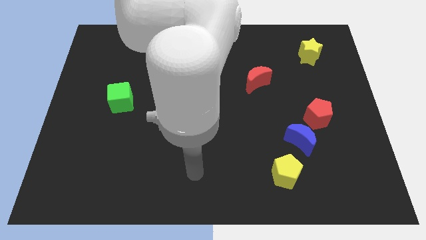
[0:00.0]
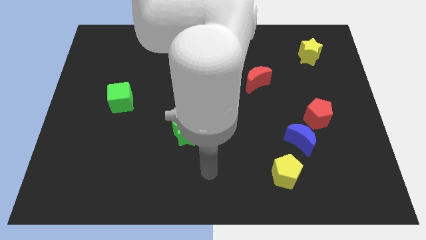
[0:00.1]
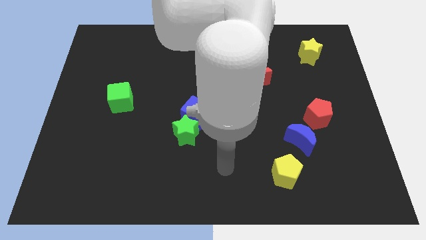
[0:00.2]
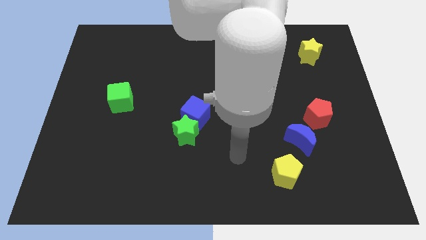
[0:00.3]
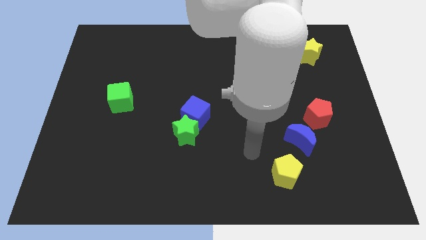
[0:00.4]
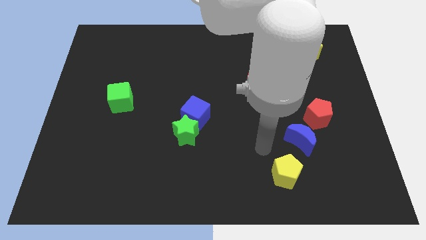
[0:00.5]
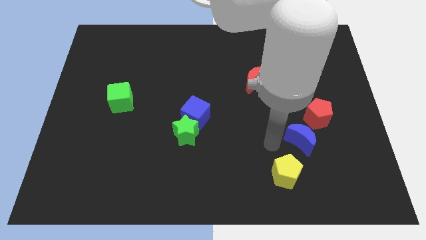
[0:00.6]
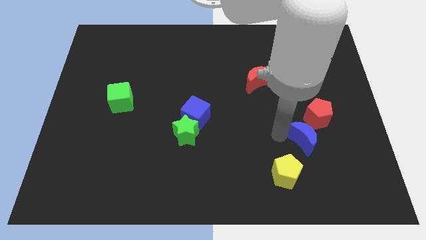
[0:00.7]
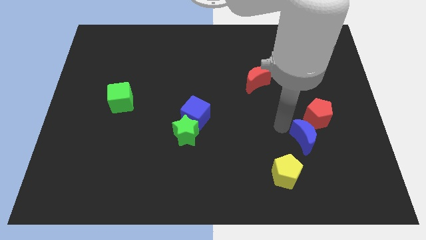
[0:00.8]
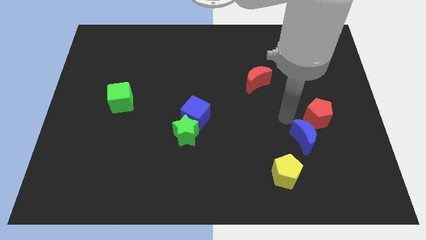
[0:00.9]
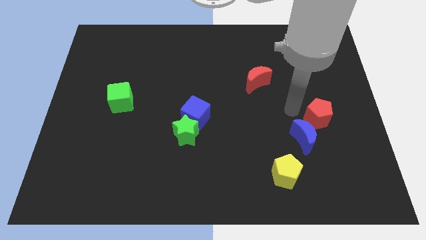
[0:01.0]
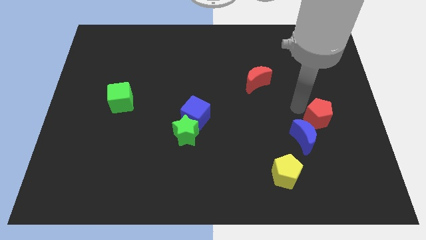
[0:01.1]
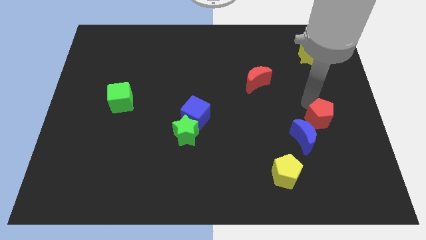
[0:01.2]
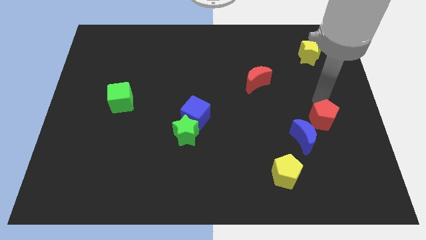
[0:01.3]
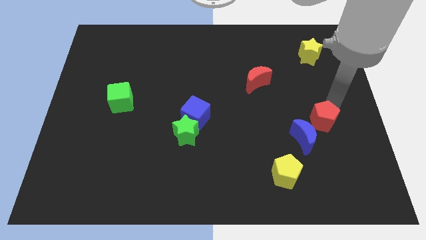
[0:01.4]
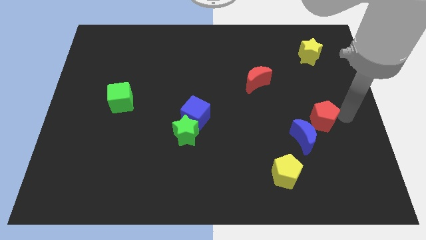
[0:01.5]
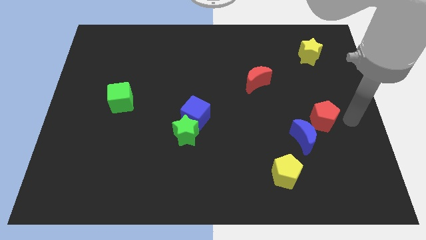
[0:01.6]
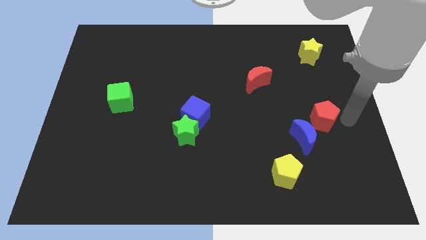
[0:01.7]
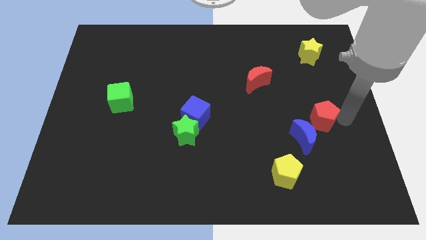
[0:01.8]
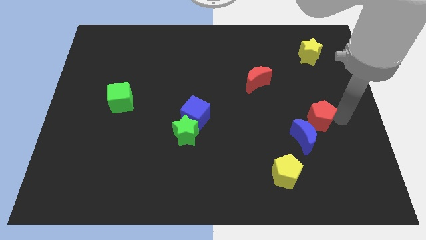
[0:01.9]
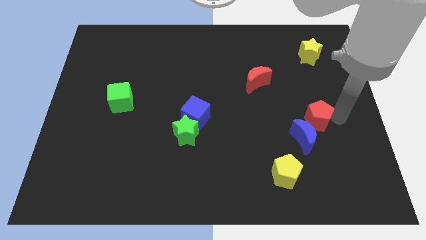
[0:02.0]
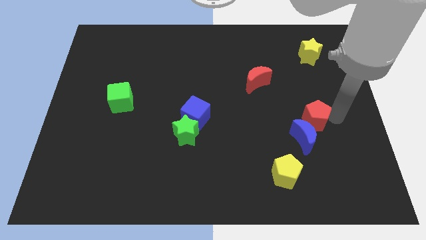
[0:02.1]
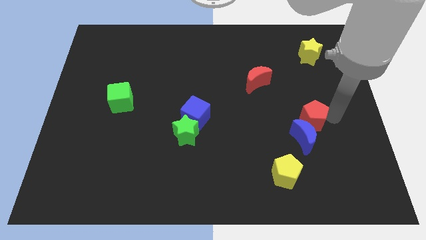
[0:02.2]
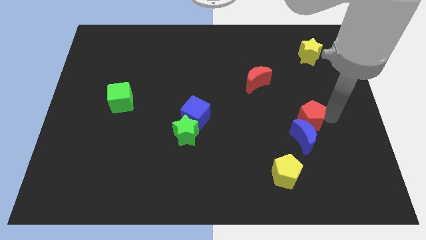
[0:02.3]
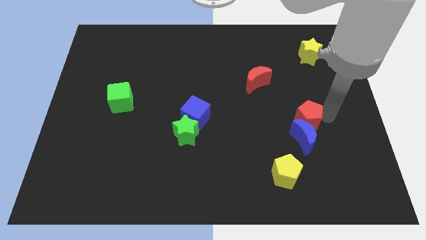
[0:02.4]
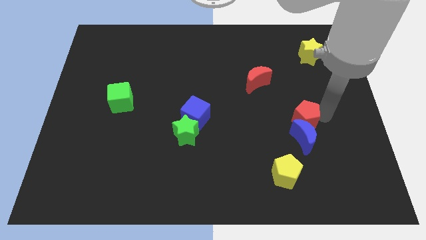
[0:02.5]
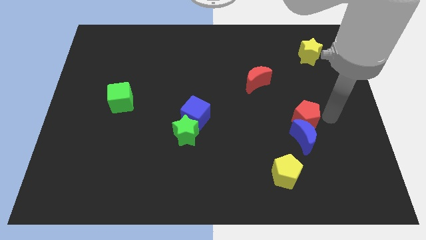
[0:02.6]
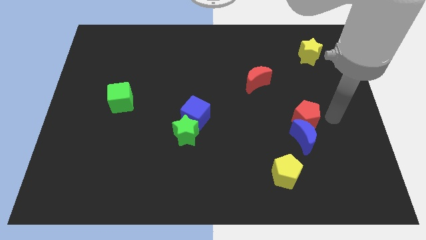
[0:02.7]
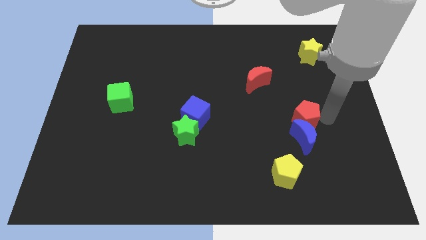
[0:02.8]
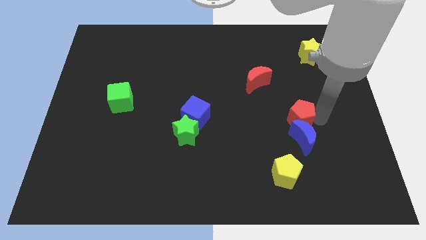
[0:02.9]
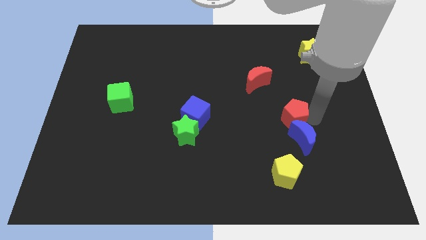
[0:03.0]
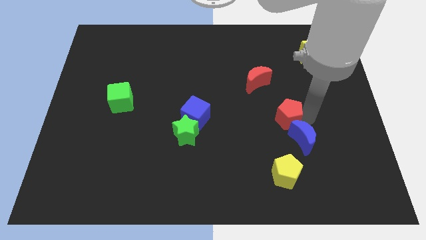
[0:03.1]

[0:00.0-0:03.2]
move the red pentagon slightly to the left

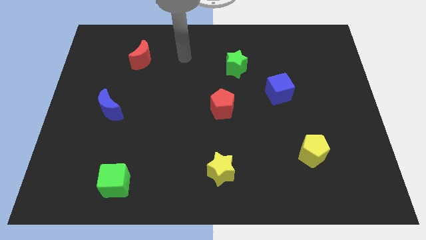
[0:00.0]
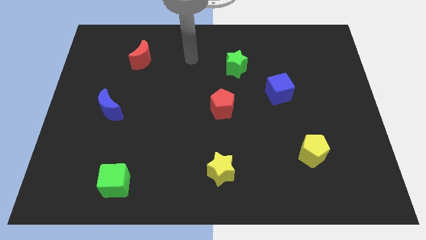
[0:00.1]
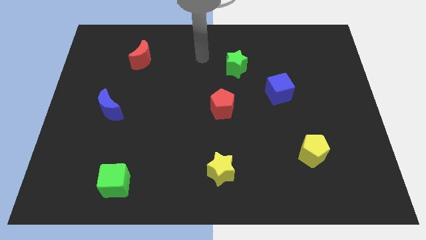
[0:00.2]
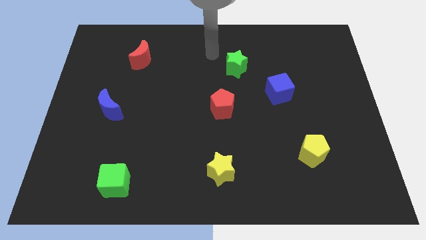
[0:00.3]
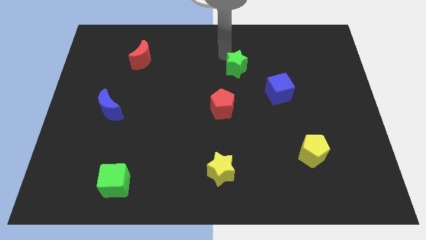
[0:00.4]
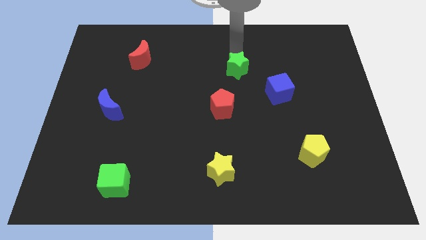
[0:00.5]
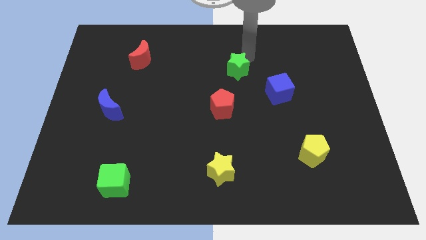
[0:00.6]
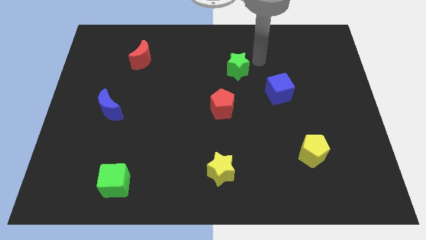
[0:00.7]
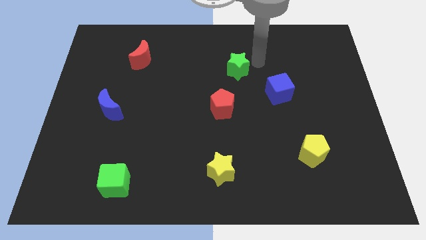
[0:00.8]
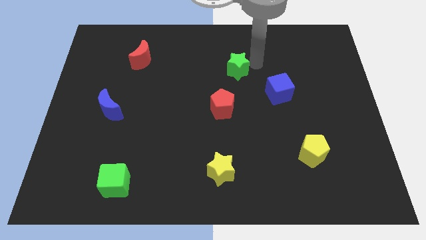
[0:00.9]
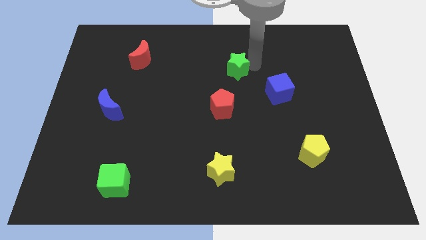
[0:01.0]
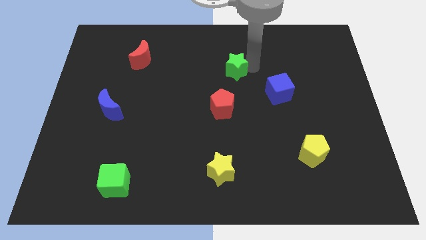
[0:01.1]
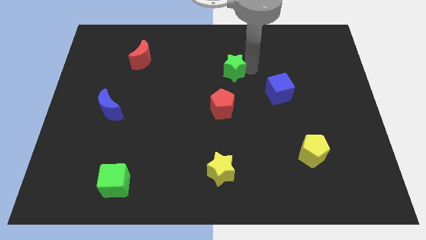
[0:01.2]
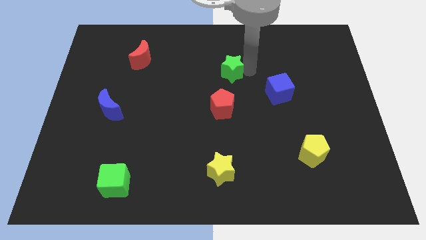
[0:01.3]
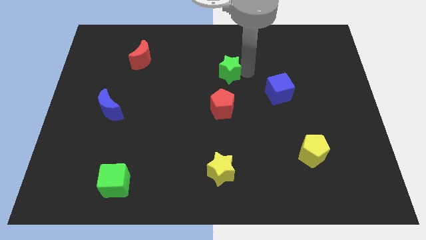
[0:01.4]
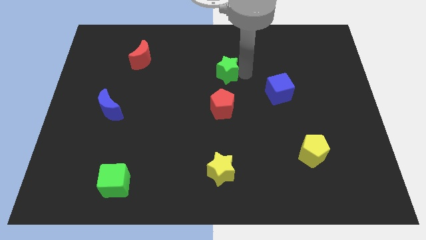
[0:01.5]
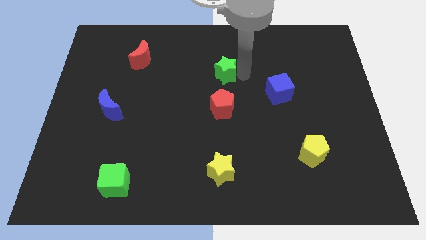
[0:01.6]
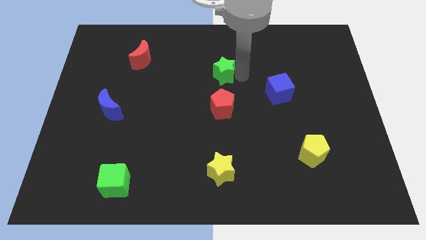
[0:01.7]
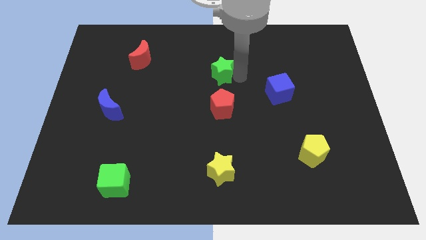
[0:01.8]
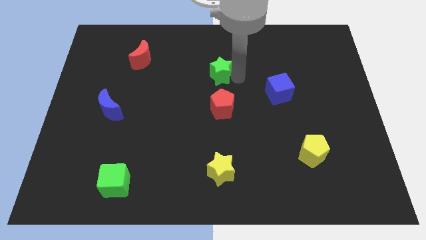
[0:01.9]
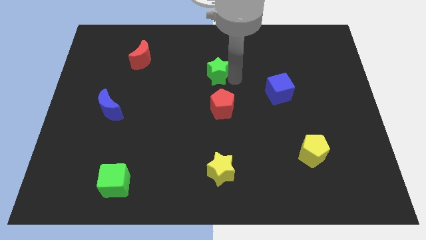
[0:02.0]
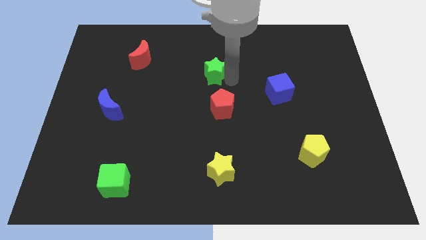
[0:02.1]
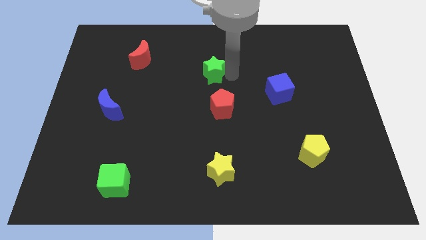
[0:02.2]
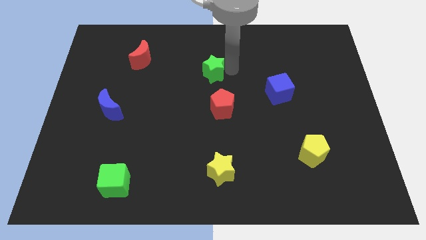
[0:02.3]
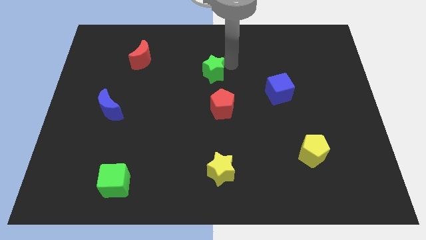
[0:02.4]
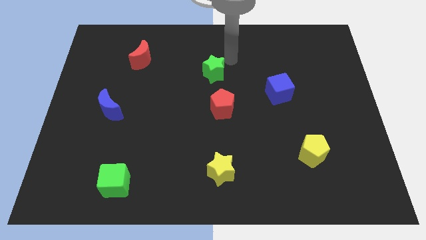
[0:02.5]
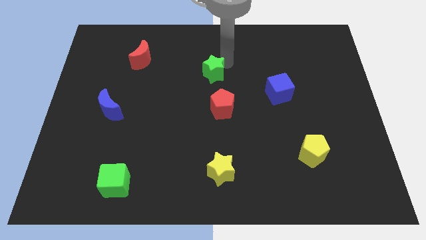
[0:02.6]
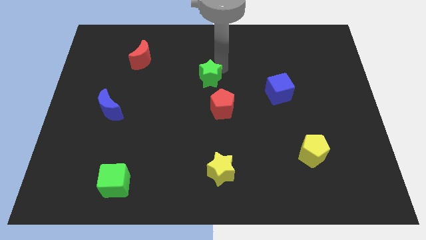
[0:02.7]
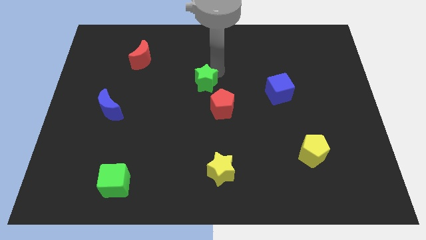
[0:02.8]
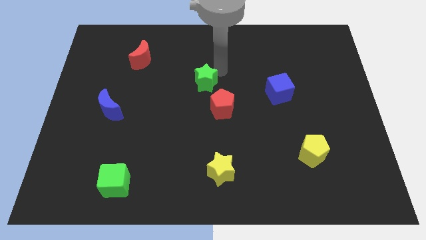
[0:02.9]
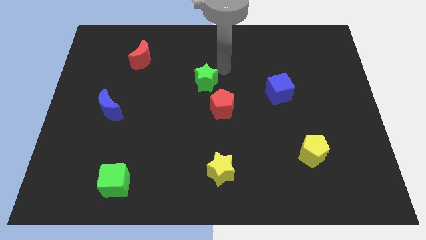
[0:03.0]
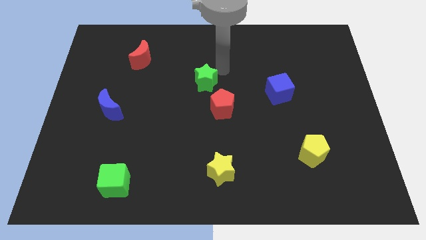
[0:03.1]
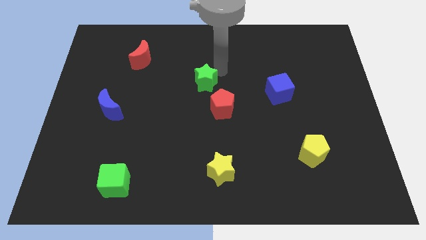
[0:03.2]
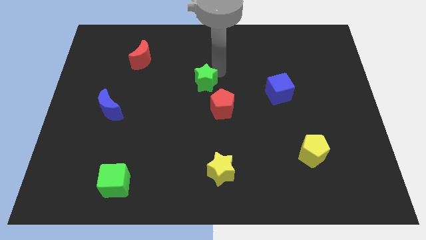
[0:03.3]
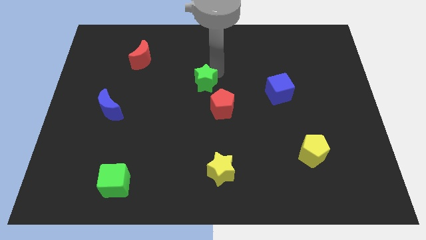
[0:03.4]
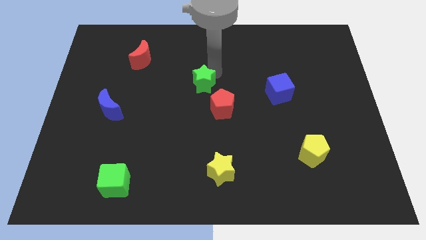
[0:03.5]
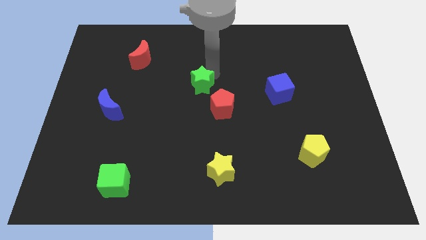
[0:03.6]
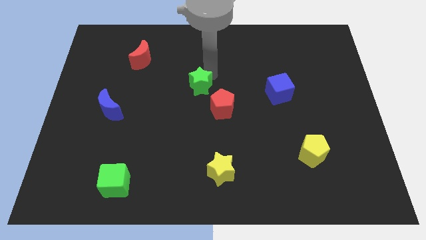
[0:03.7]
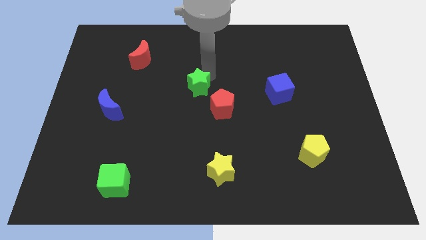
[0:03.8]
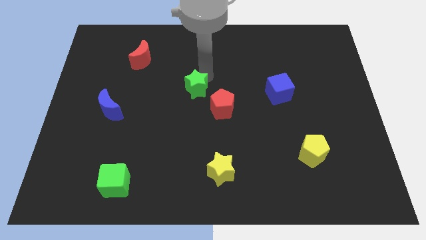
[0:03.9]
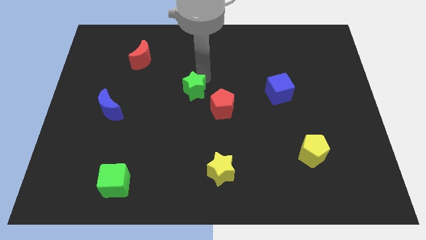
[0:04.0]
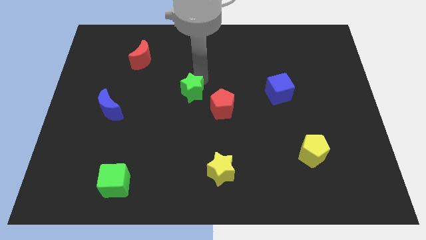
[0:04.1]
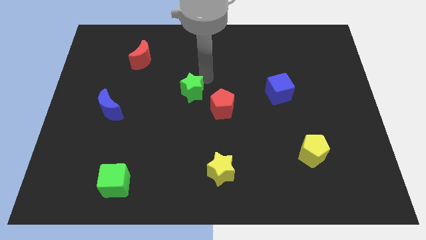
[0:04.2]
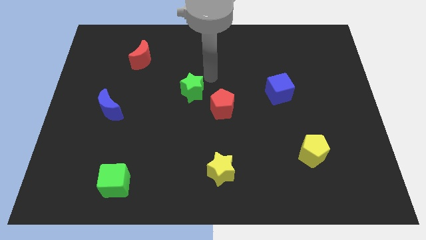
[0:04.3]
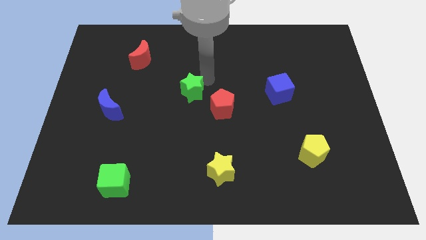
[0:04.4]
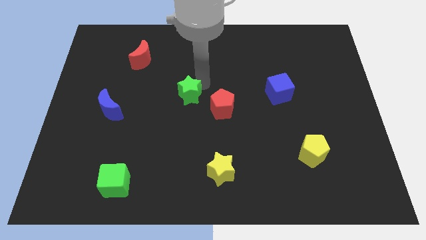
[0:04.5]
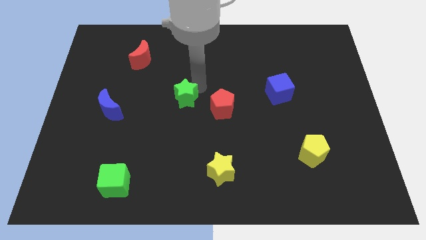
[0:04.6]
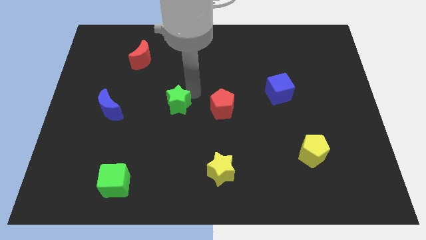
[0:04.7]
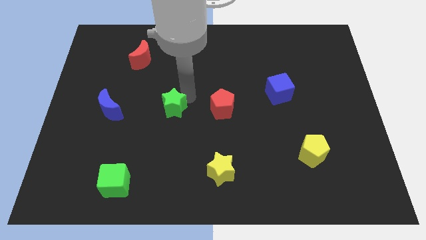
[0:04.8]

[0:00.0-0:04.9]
move the green star downwards and left diagonally

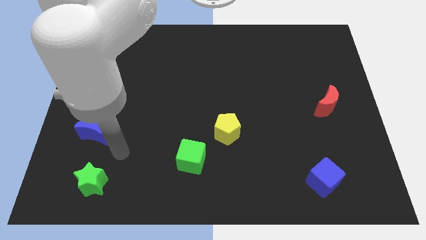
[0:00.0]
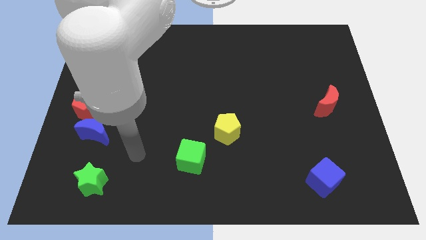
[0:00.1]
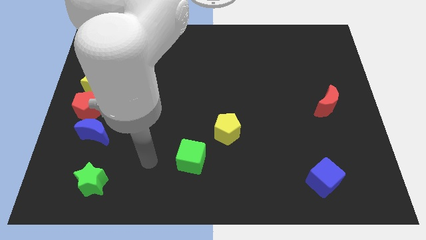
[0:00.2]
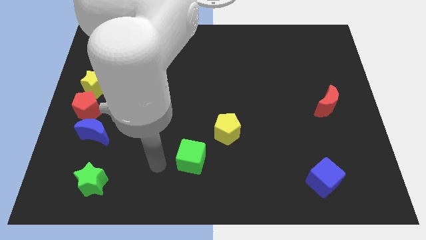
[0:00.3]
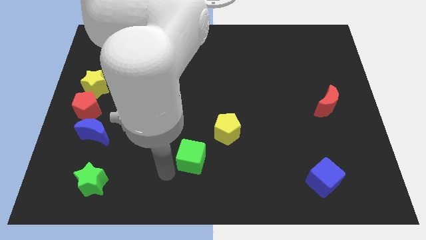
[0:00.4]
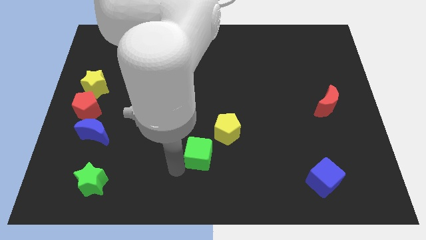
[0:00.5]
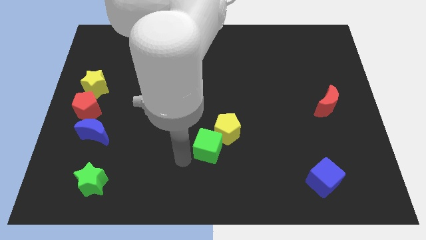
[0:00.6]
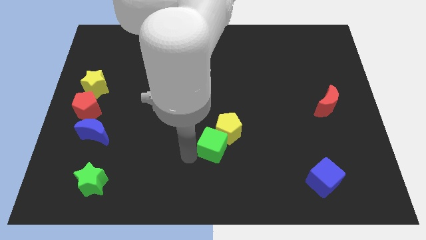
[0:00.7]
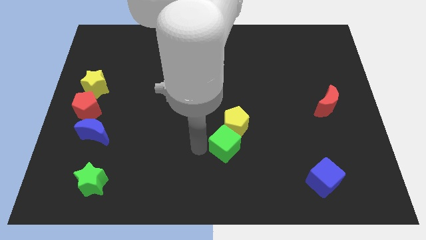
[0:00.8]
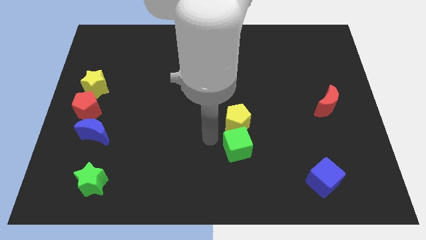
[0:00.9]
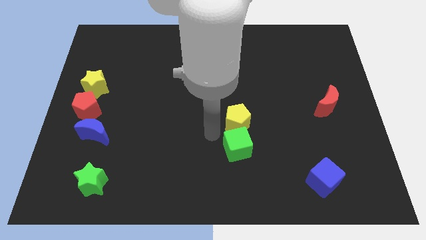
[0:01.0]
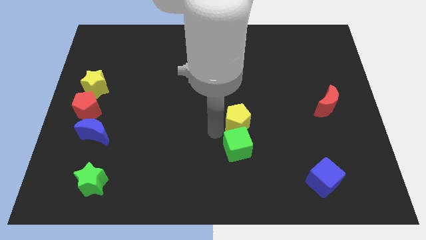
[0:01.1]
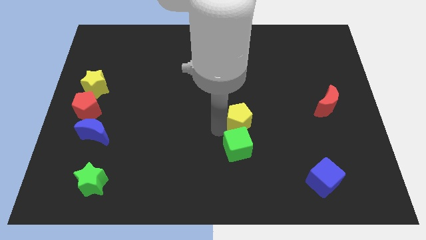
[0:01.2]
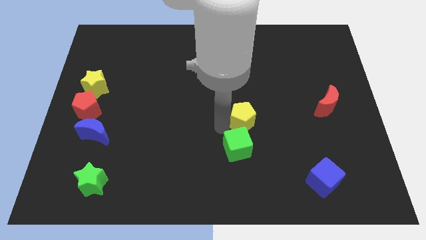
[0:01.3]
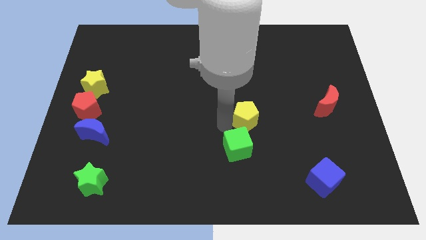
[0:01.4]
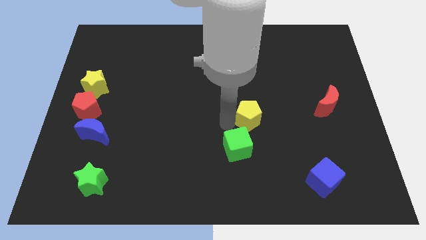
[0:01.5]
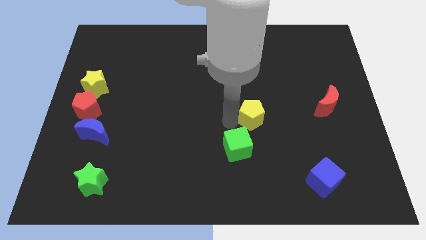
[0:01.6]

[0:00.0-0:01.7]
slightly push the yellow pentagon up and to the right
